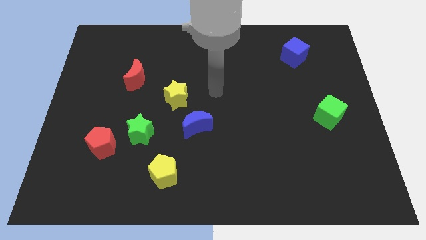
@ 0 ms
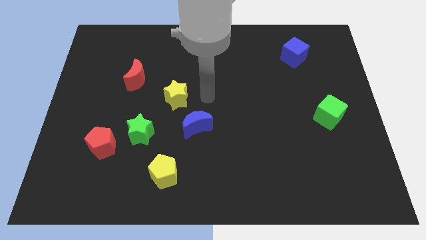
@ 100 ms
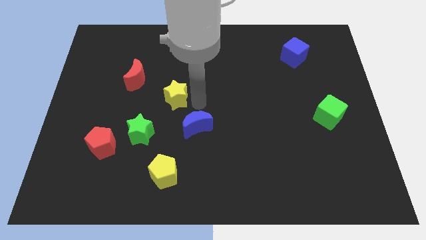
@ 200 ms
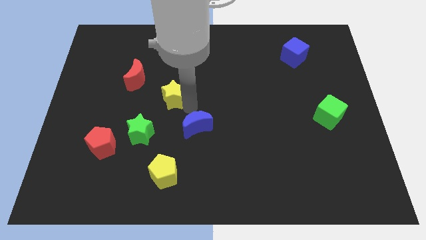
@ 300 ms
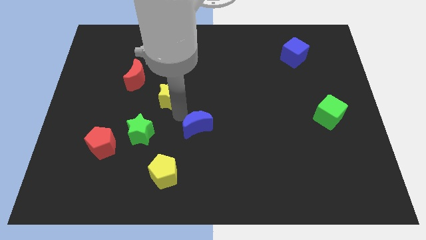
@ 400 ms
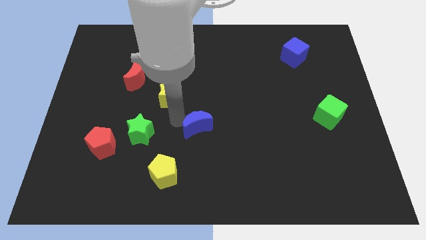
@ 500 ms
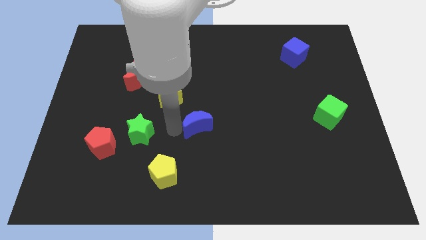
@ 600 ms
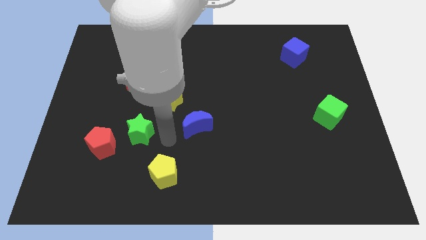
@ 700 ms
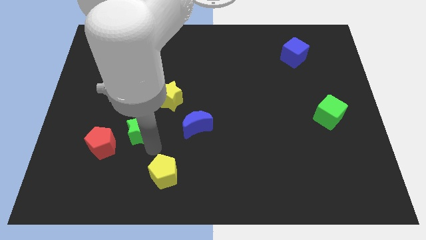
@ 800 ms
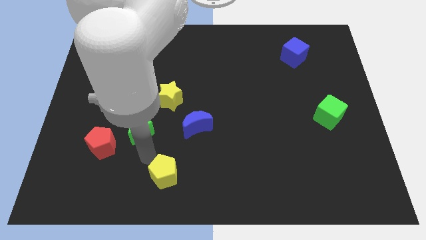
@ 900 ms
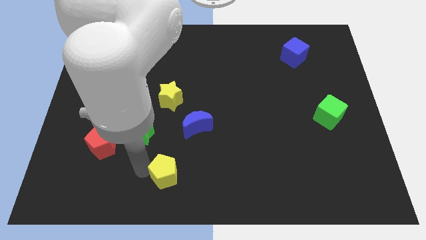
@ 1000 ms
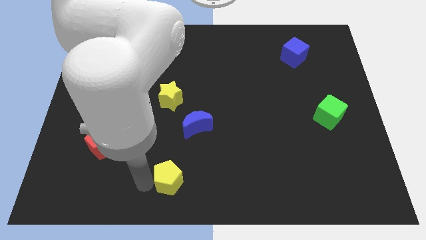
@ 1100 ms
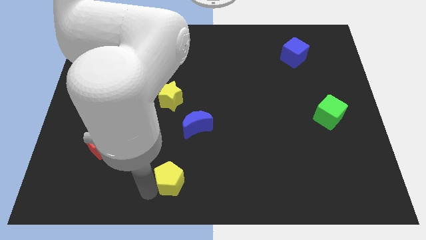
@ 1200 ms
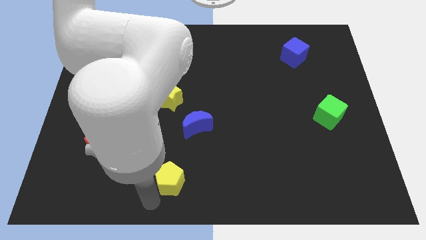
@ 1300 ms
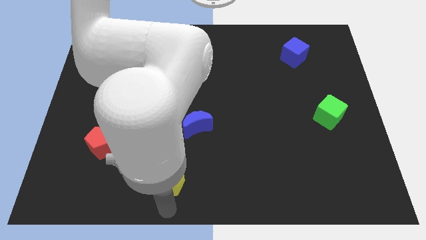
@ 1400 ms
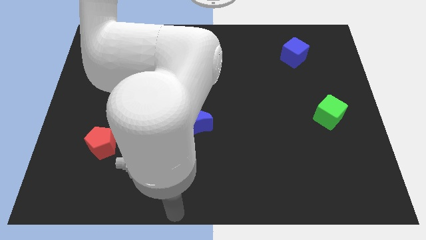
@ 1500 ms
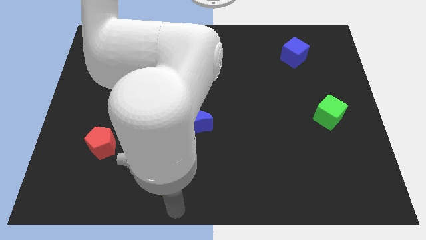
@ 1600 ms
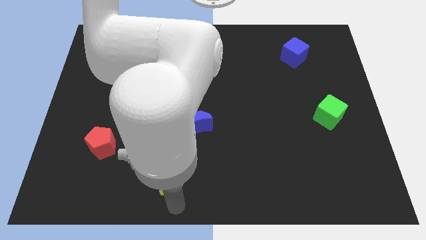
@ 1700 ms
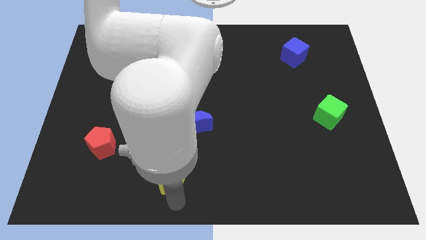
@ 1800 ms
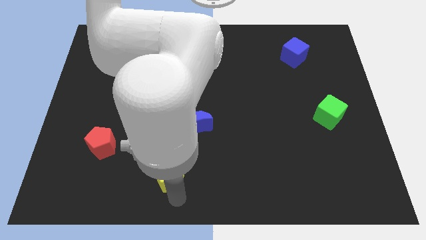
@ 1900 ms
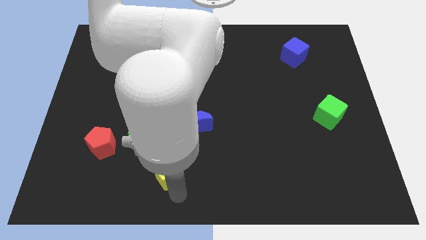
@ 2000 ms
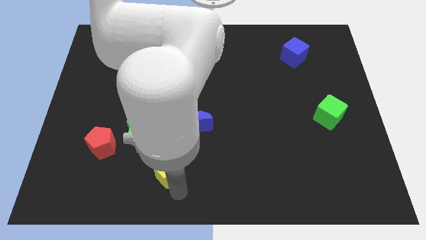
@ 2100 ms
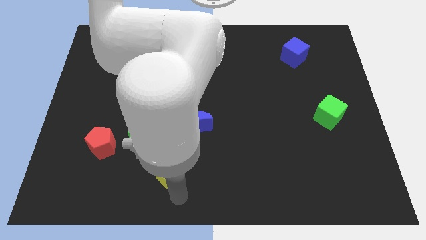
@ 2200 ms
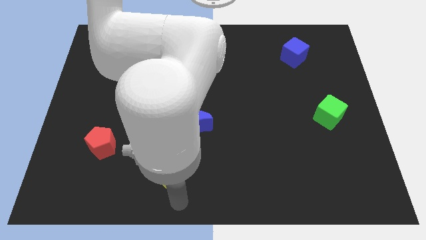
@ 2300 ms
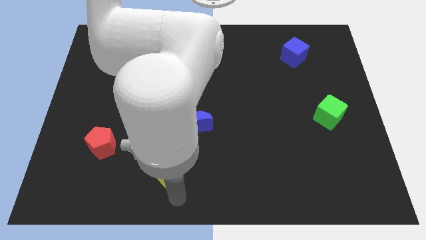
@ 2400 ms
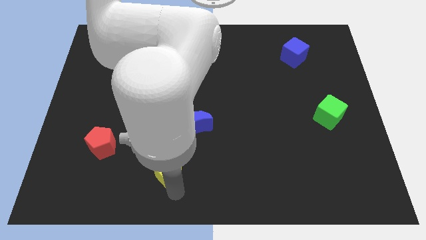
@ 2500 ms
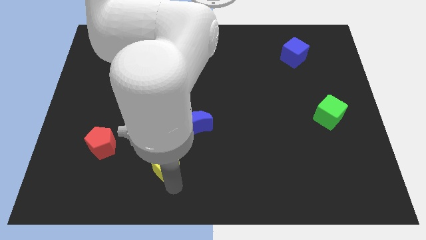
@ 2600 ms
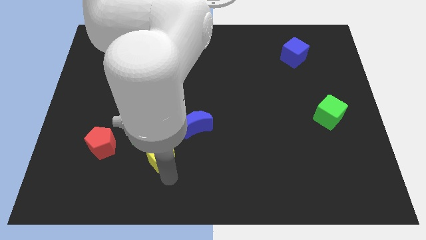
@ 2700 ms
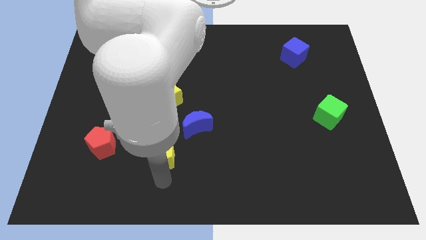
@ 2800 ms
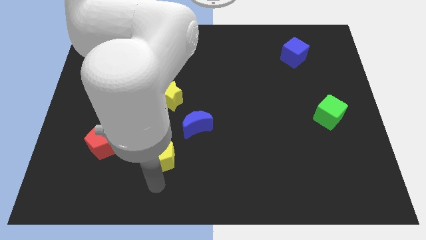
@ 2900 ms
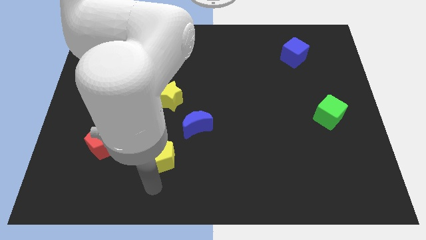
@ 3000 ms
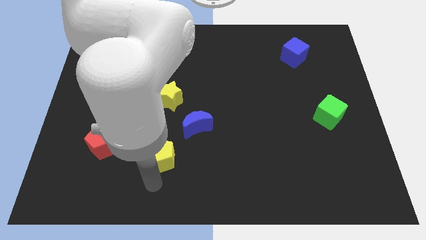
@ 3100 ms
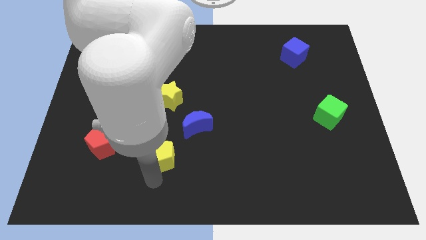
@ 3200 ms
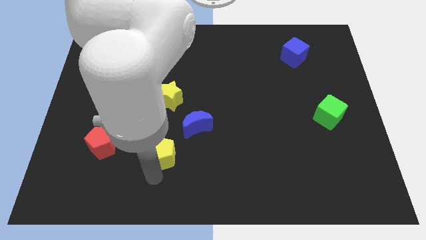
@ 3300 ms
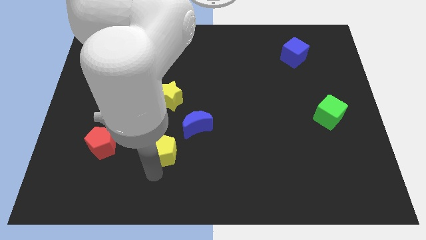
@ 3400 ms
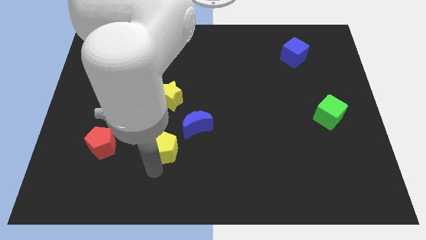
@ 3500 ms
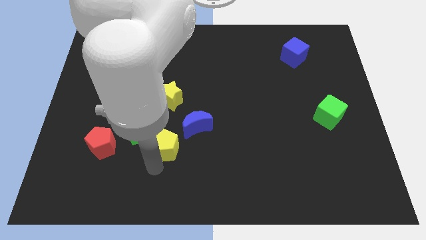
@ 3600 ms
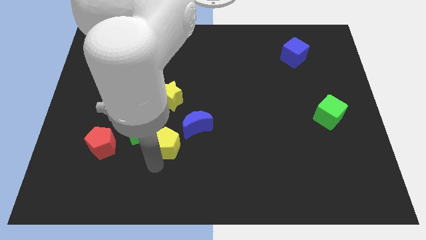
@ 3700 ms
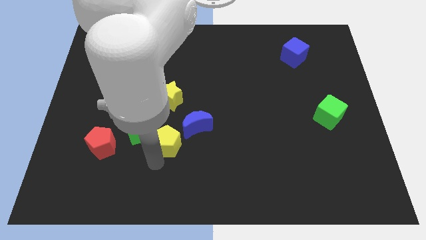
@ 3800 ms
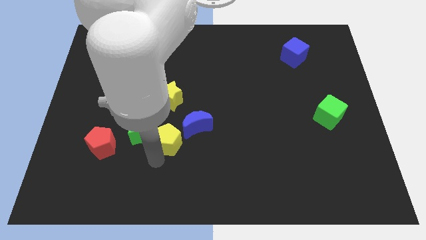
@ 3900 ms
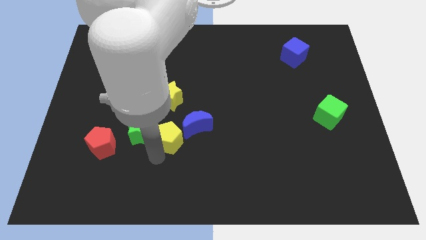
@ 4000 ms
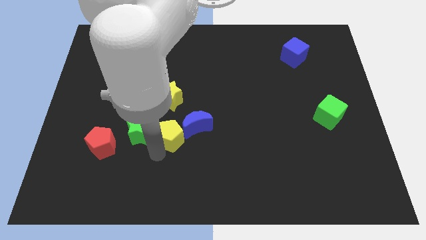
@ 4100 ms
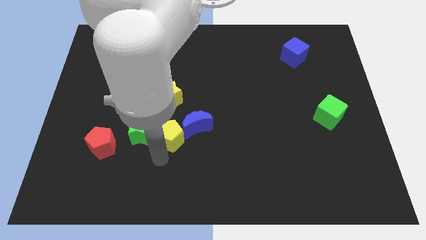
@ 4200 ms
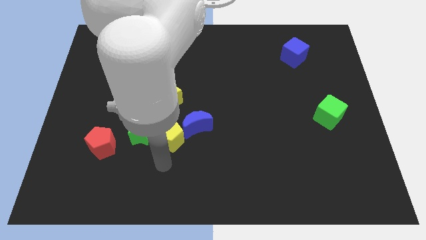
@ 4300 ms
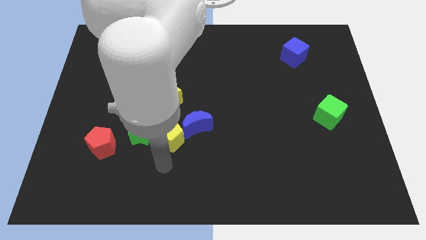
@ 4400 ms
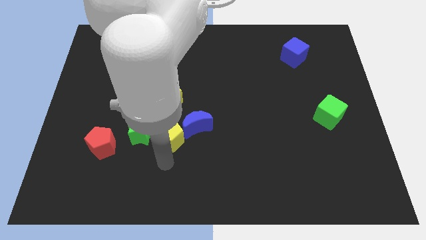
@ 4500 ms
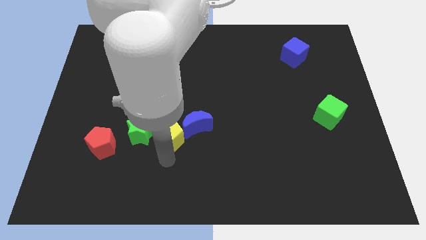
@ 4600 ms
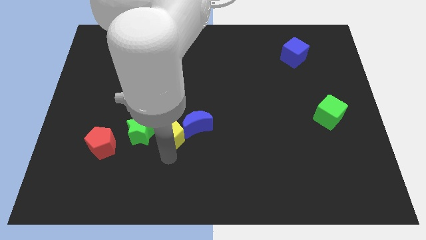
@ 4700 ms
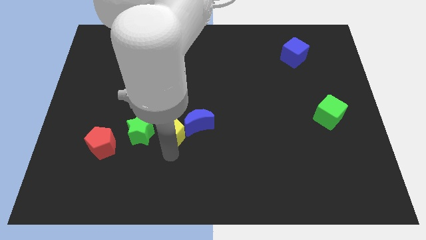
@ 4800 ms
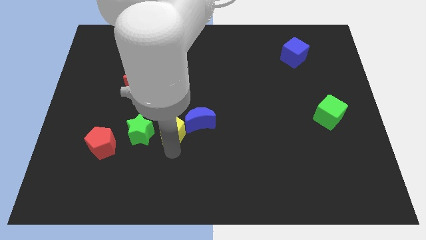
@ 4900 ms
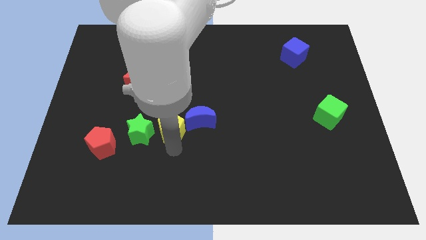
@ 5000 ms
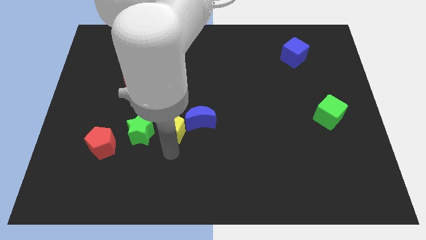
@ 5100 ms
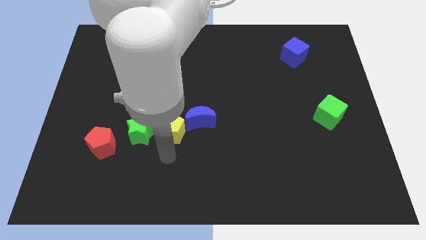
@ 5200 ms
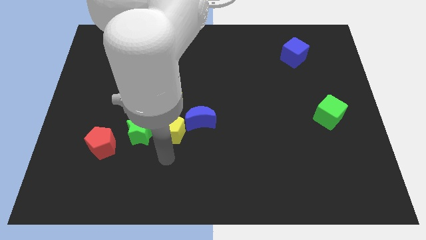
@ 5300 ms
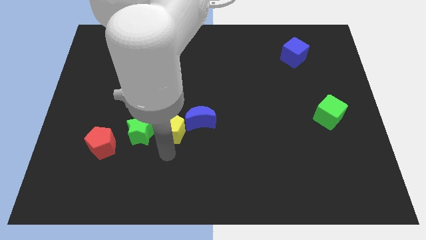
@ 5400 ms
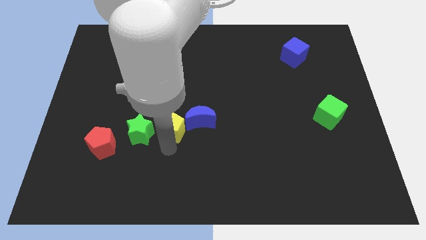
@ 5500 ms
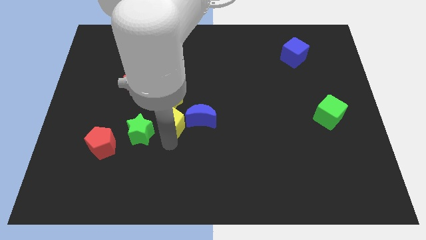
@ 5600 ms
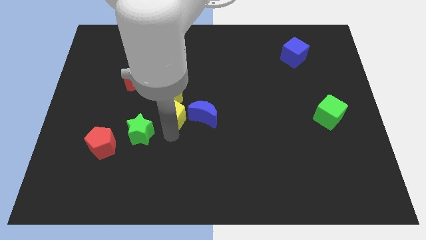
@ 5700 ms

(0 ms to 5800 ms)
put the yellow pentagon towards the yellow star
